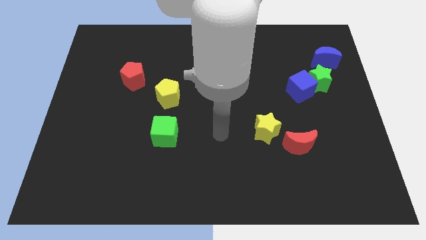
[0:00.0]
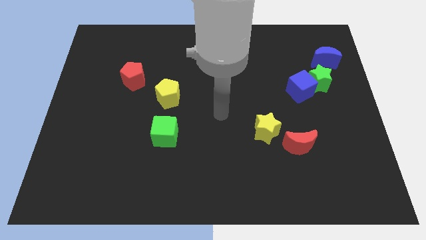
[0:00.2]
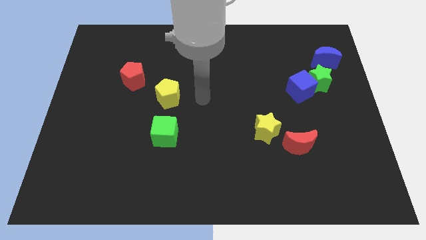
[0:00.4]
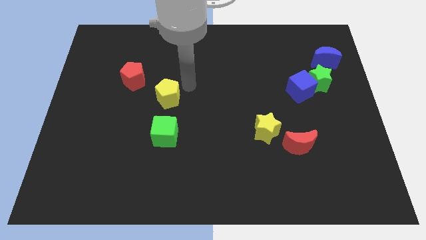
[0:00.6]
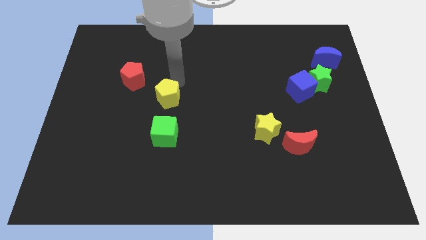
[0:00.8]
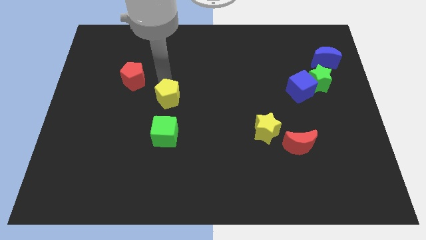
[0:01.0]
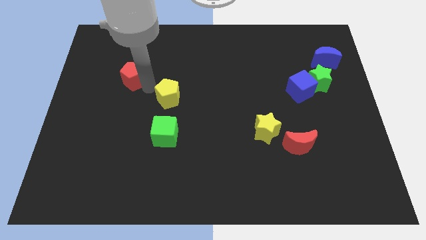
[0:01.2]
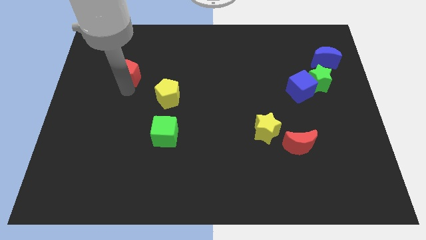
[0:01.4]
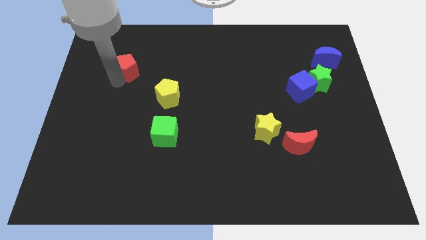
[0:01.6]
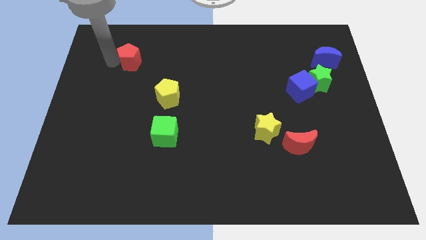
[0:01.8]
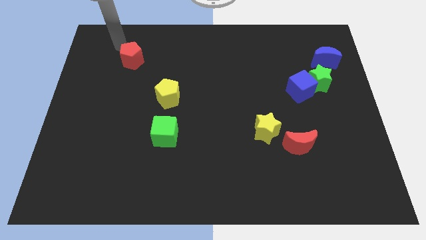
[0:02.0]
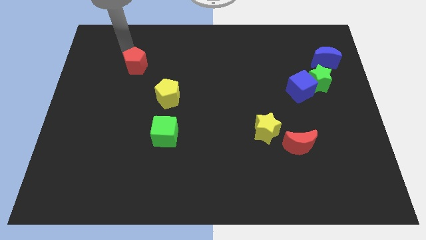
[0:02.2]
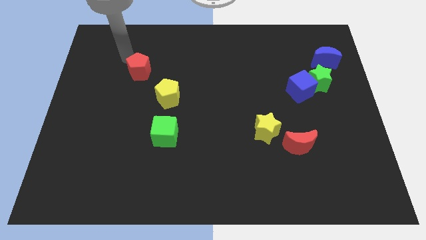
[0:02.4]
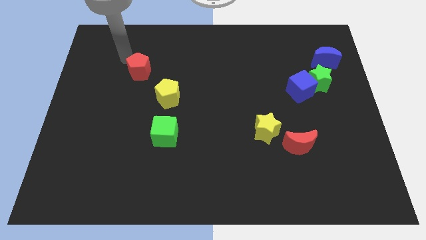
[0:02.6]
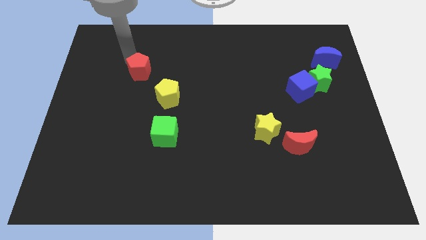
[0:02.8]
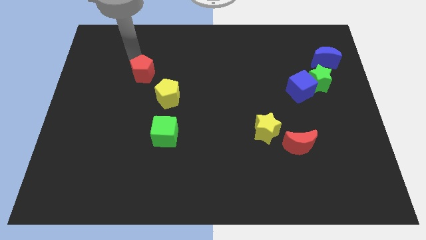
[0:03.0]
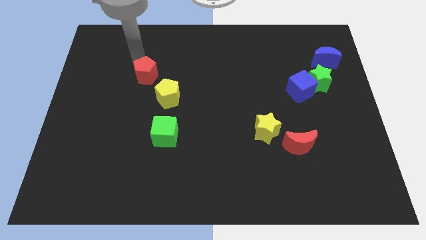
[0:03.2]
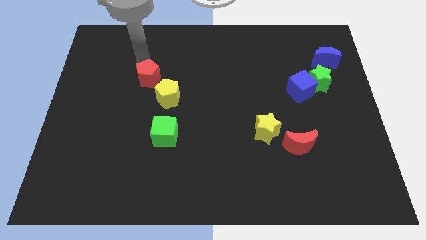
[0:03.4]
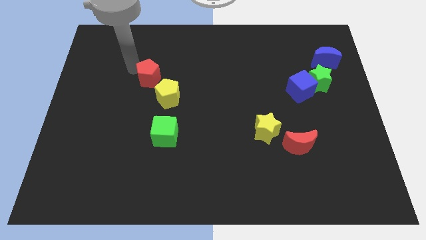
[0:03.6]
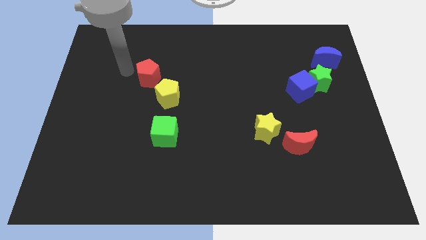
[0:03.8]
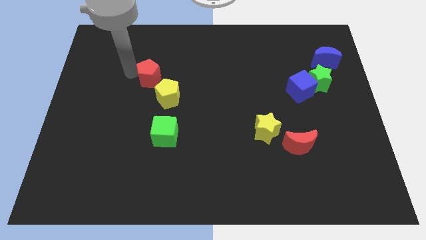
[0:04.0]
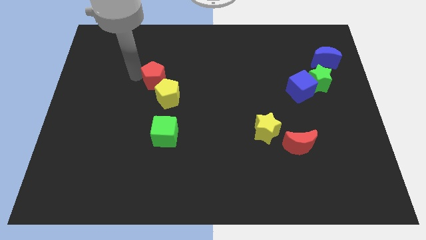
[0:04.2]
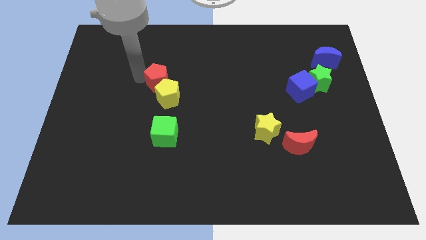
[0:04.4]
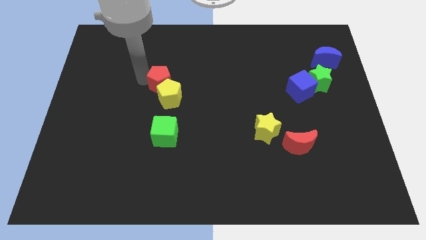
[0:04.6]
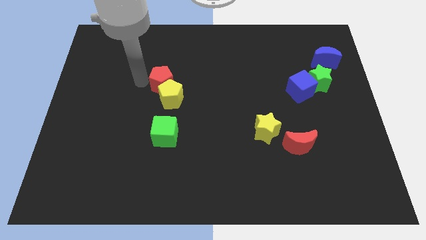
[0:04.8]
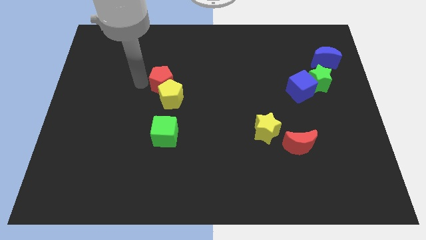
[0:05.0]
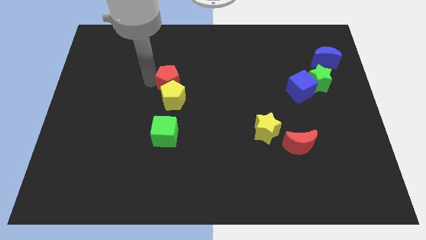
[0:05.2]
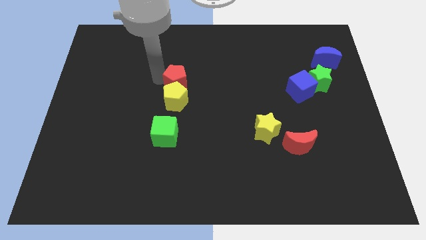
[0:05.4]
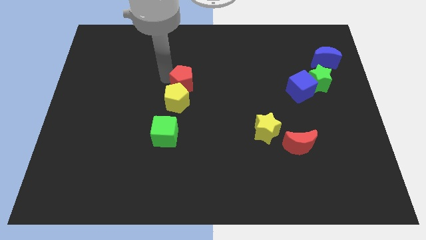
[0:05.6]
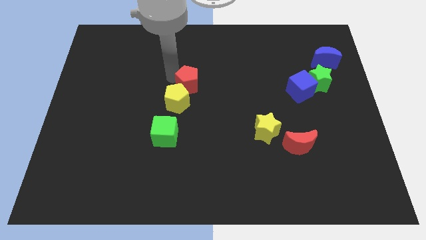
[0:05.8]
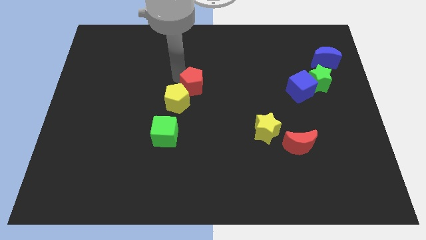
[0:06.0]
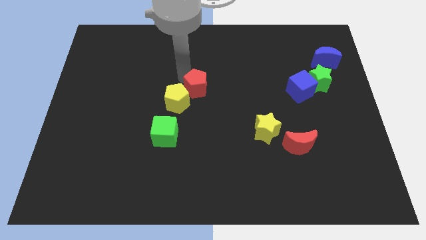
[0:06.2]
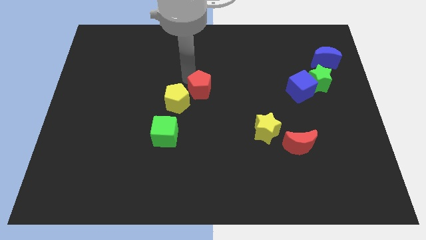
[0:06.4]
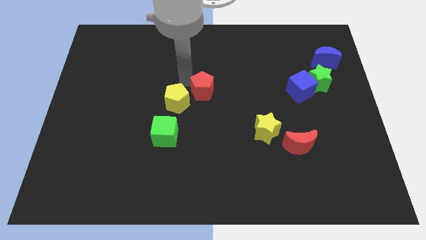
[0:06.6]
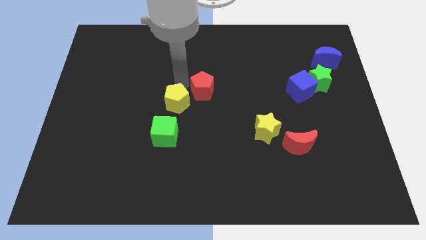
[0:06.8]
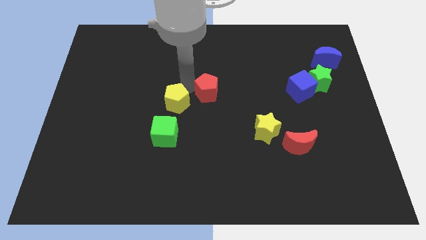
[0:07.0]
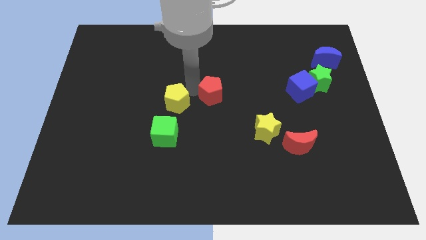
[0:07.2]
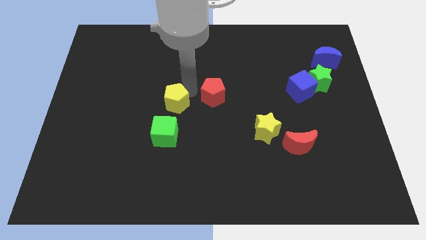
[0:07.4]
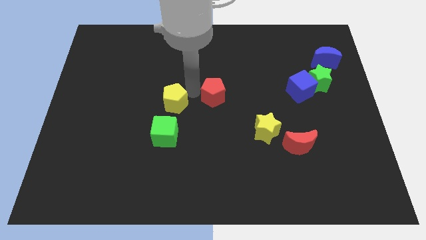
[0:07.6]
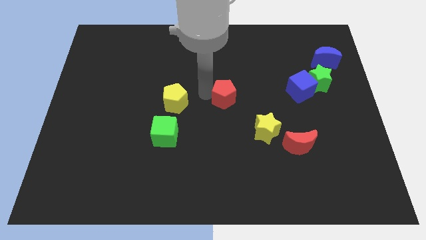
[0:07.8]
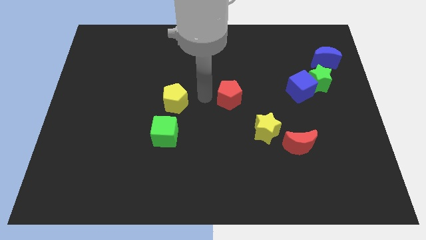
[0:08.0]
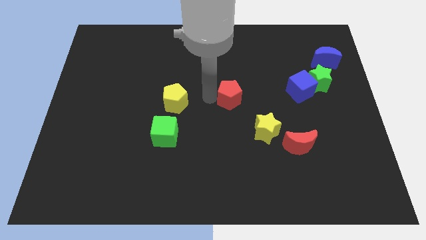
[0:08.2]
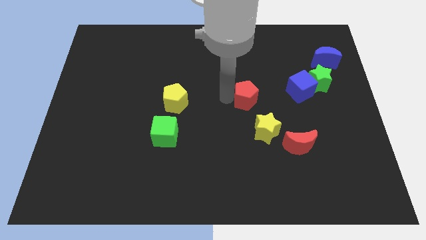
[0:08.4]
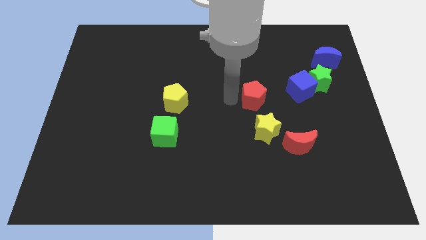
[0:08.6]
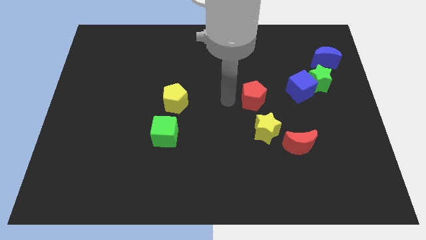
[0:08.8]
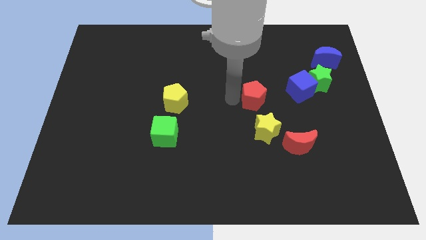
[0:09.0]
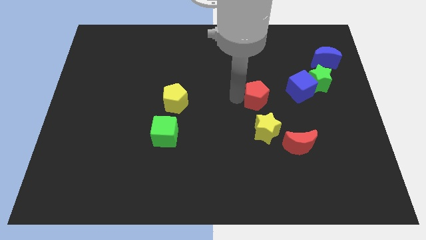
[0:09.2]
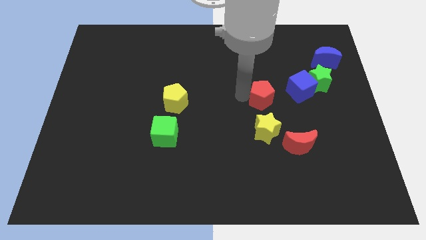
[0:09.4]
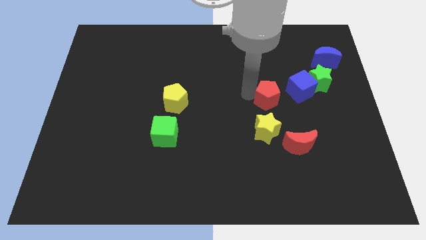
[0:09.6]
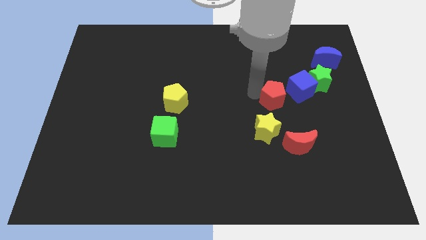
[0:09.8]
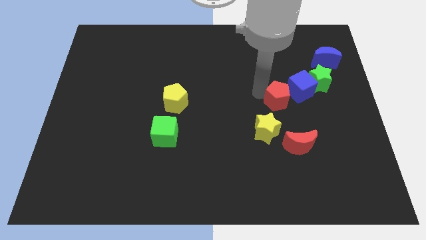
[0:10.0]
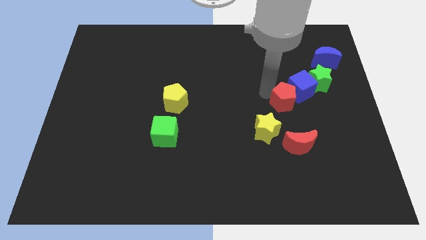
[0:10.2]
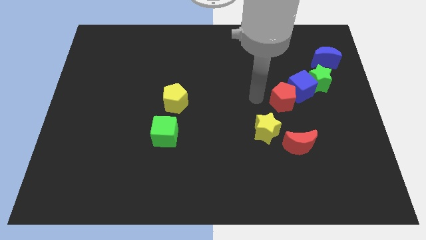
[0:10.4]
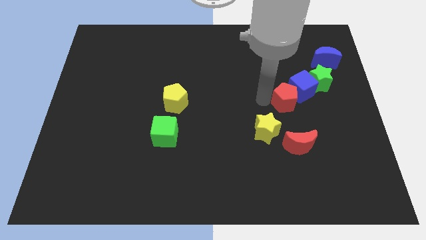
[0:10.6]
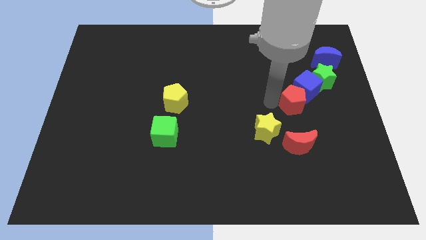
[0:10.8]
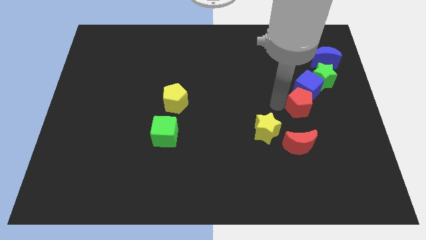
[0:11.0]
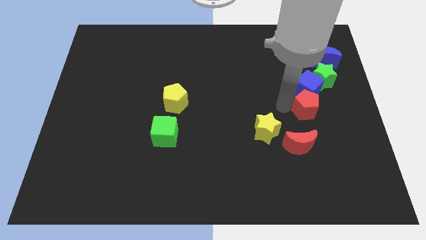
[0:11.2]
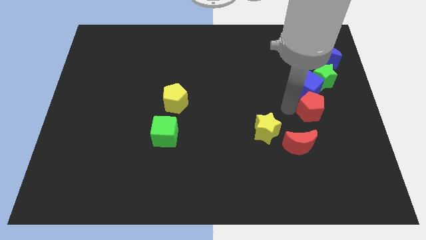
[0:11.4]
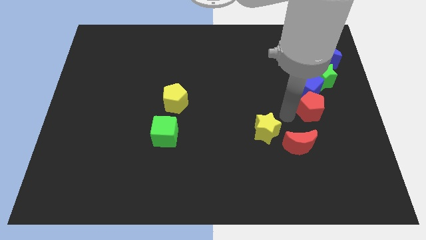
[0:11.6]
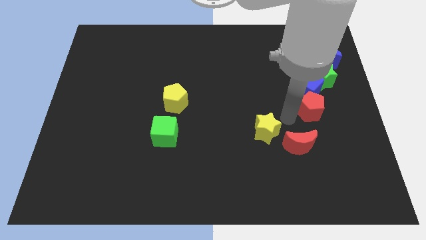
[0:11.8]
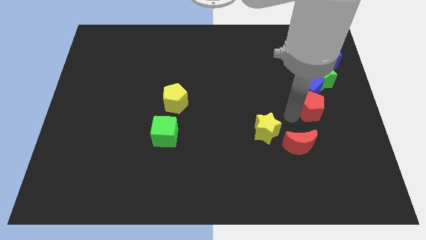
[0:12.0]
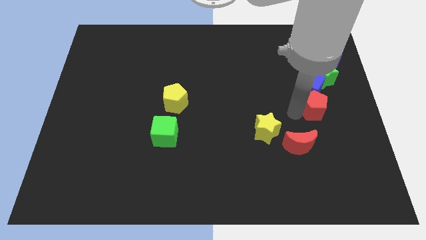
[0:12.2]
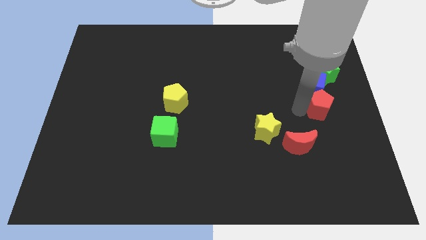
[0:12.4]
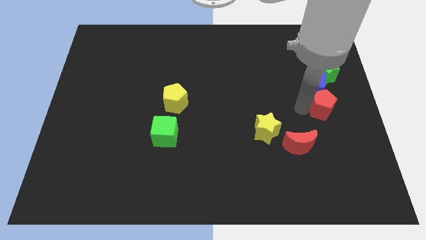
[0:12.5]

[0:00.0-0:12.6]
push the red pentagon to the right side of the board
